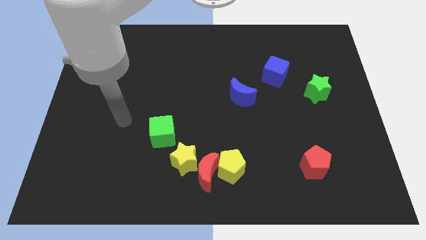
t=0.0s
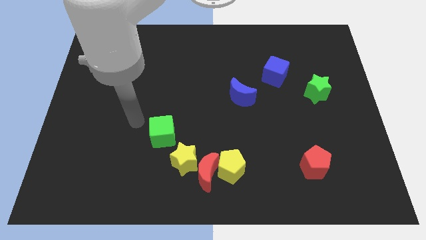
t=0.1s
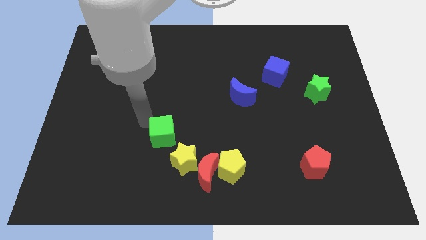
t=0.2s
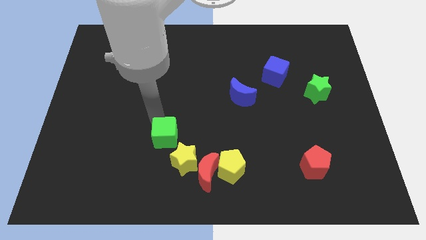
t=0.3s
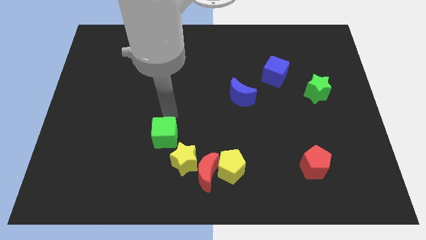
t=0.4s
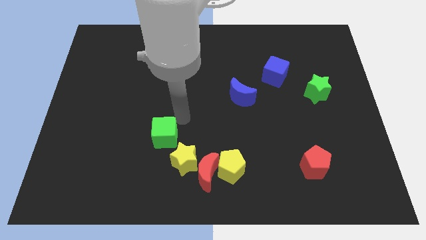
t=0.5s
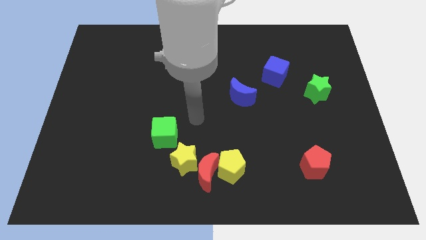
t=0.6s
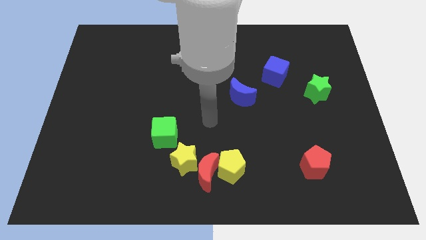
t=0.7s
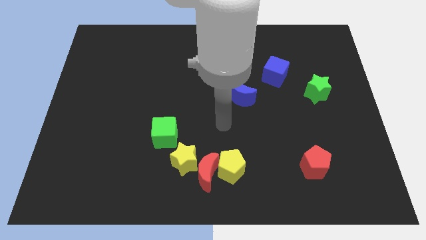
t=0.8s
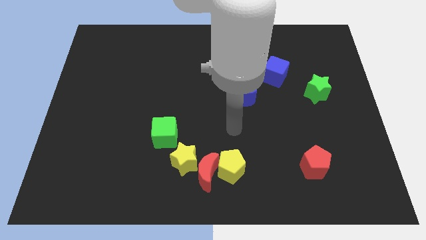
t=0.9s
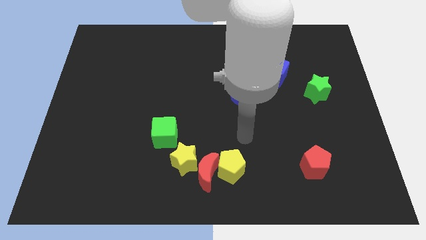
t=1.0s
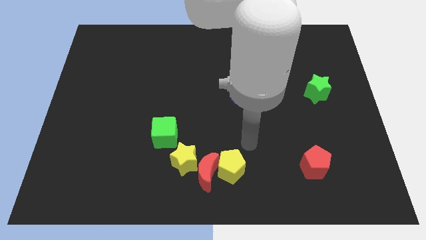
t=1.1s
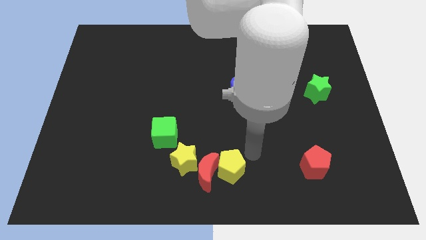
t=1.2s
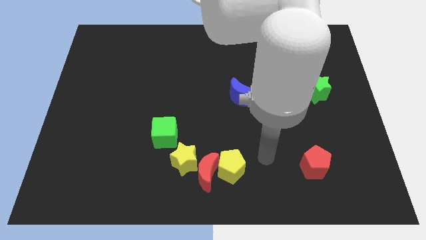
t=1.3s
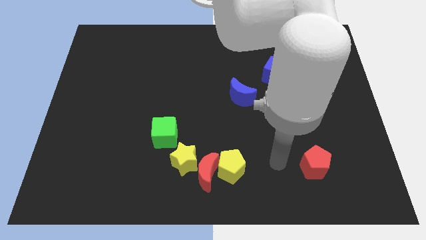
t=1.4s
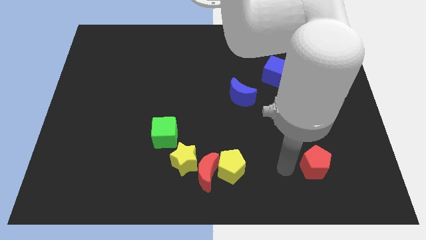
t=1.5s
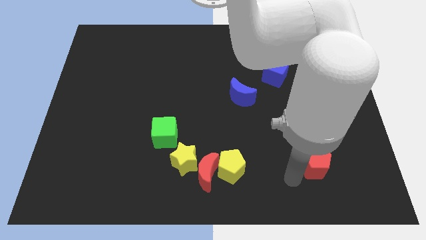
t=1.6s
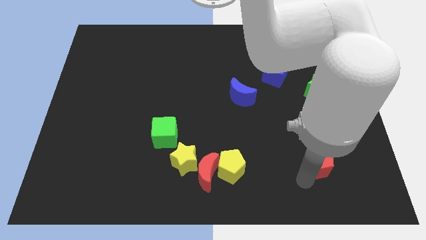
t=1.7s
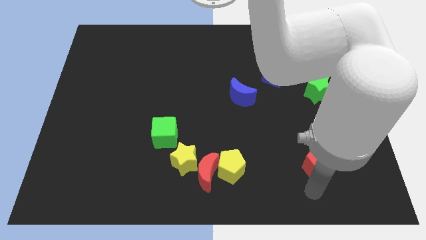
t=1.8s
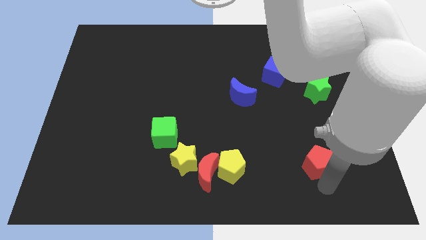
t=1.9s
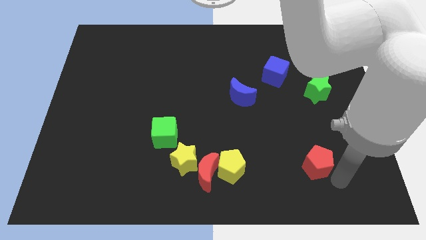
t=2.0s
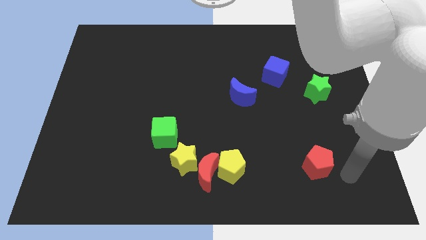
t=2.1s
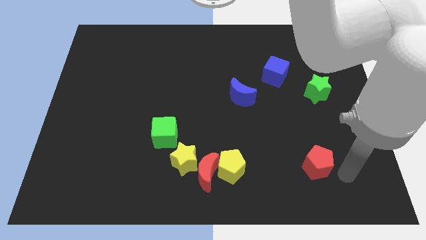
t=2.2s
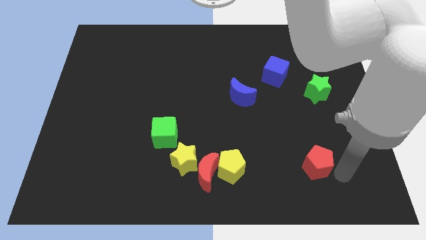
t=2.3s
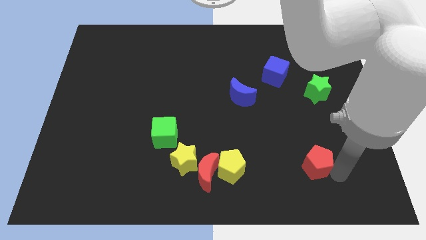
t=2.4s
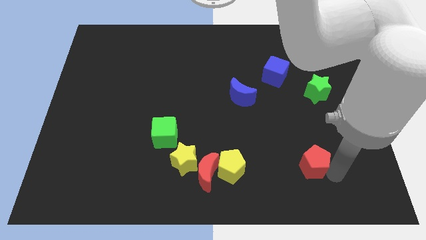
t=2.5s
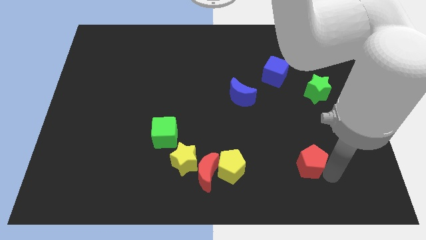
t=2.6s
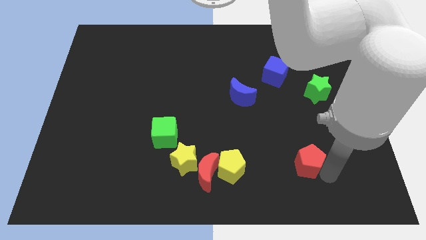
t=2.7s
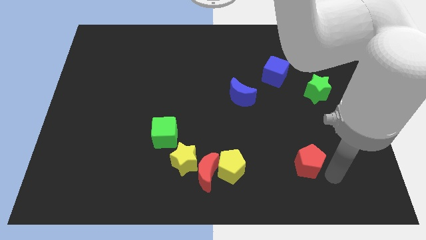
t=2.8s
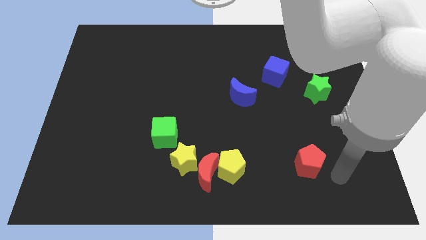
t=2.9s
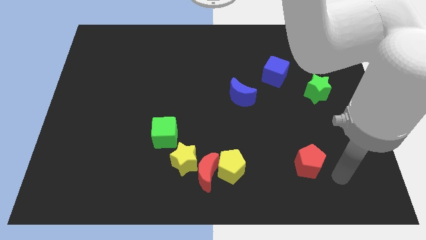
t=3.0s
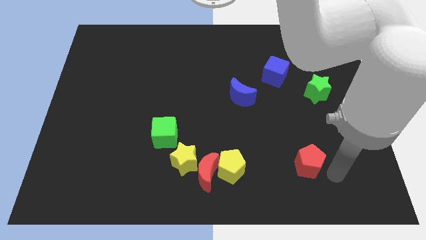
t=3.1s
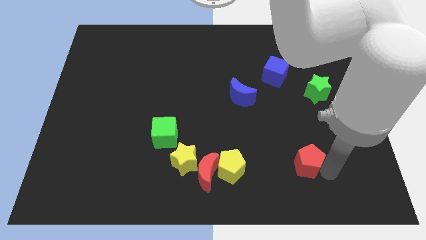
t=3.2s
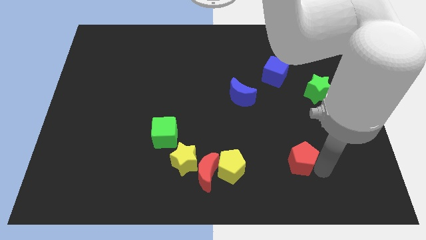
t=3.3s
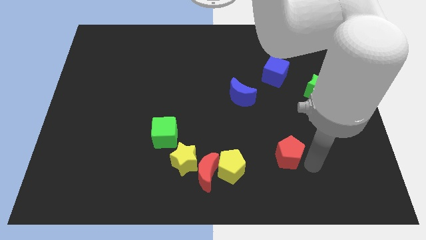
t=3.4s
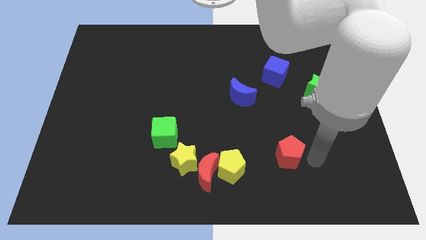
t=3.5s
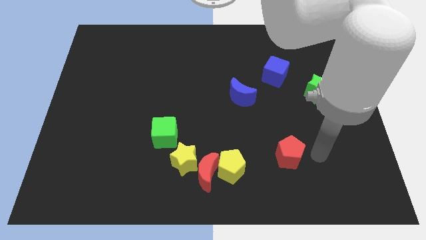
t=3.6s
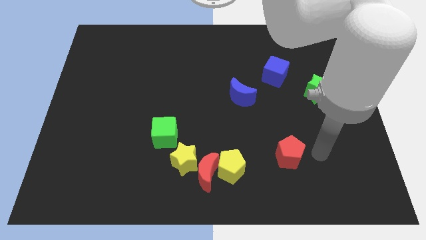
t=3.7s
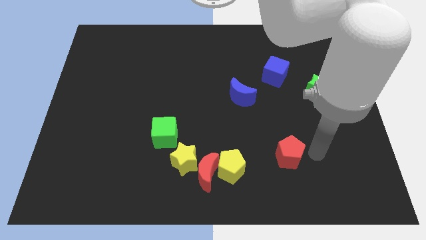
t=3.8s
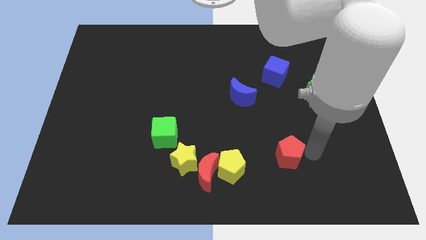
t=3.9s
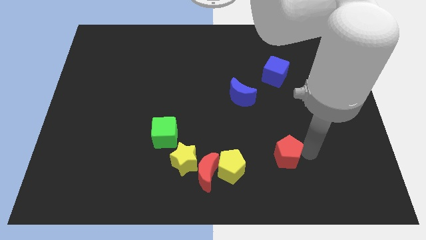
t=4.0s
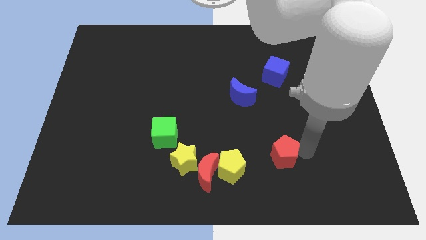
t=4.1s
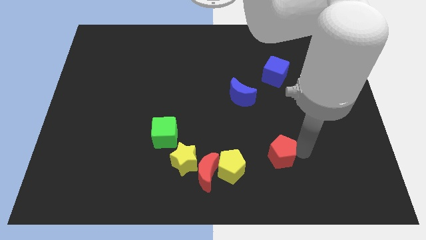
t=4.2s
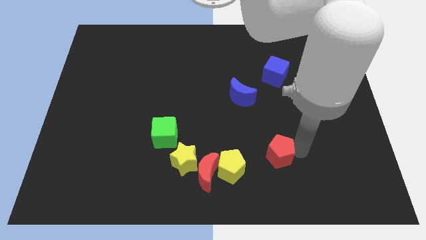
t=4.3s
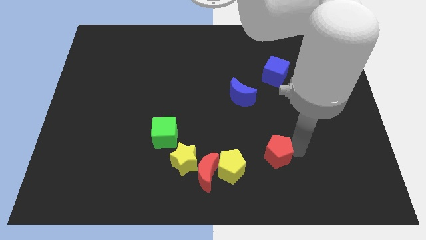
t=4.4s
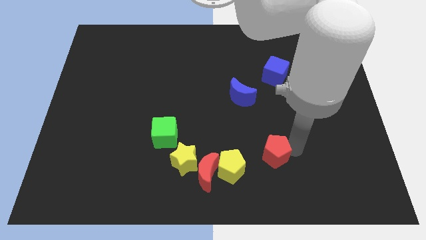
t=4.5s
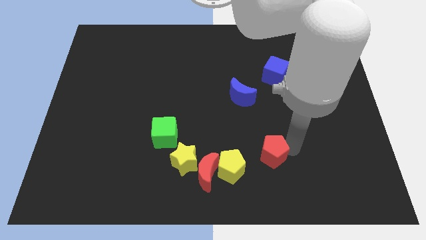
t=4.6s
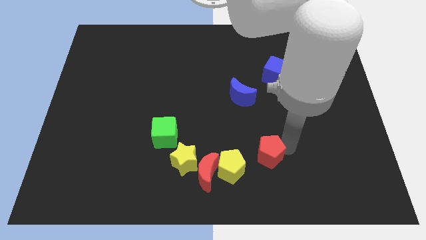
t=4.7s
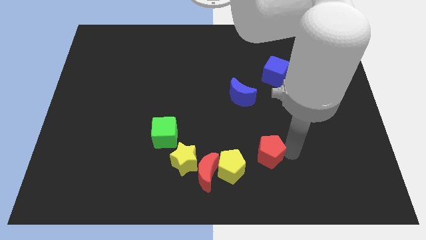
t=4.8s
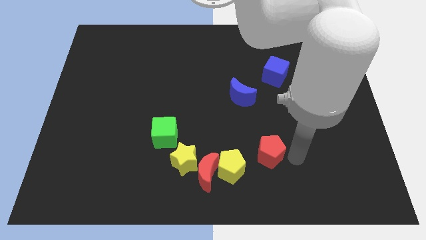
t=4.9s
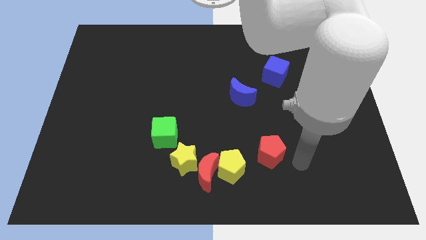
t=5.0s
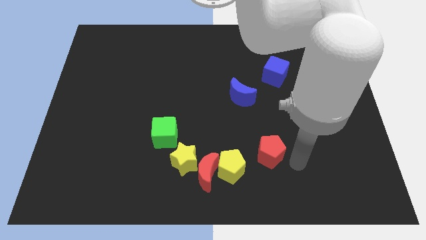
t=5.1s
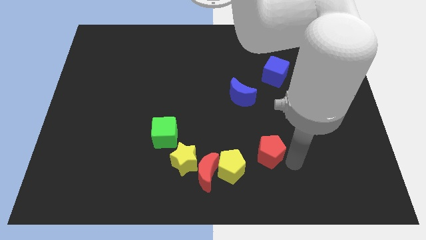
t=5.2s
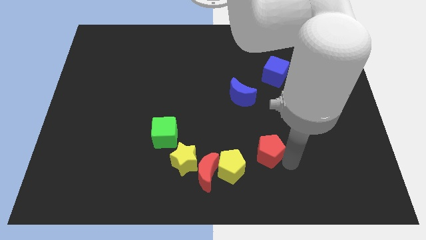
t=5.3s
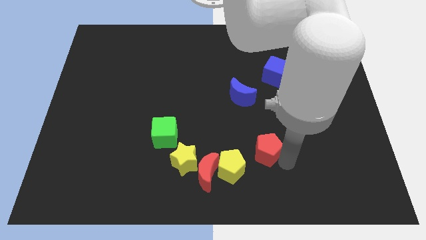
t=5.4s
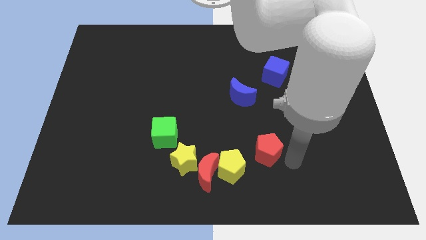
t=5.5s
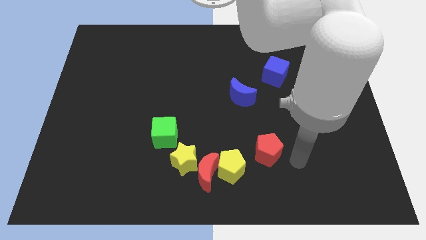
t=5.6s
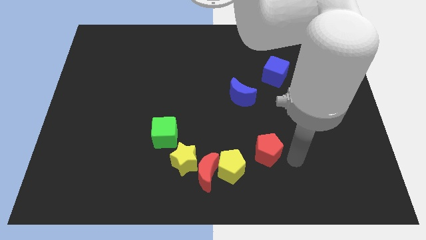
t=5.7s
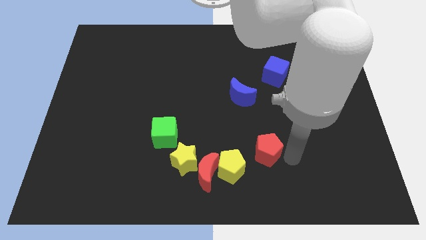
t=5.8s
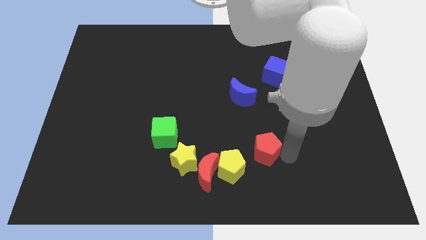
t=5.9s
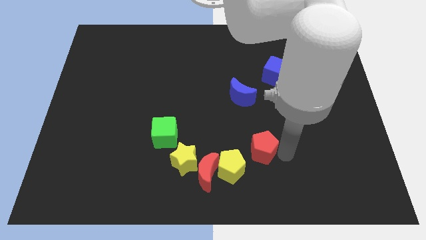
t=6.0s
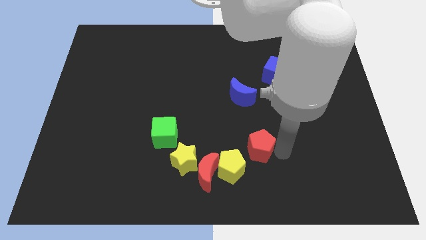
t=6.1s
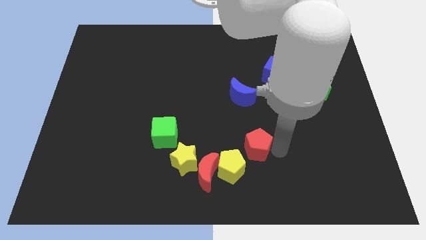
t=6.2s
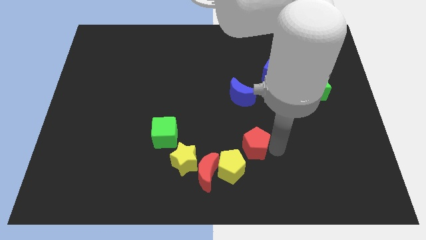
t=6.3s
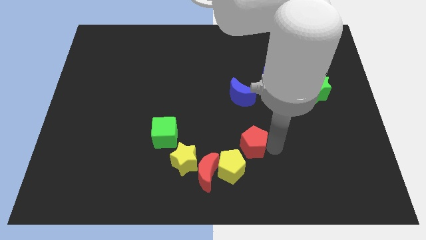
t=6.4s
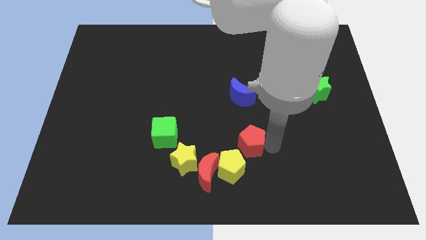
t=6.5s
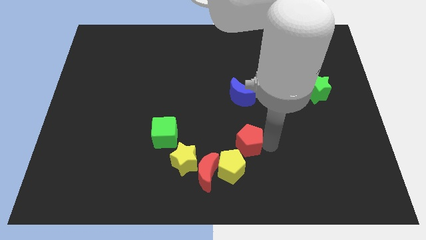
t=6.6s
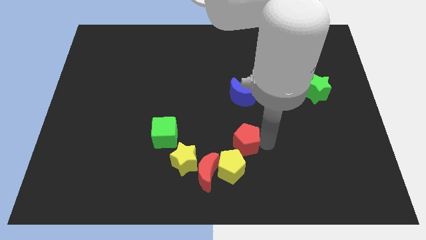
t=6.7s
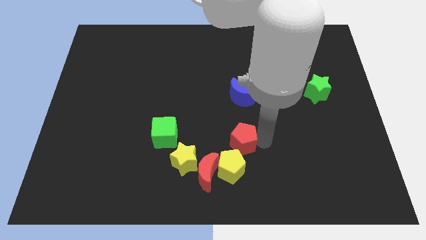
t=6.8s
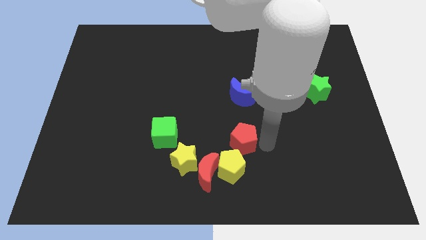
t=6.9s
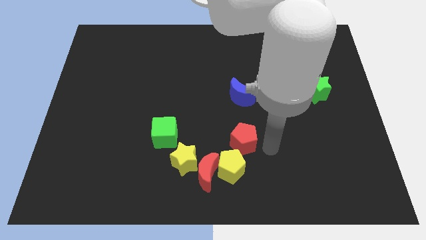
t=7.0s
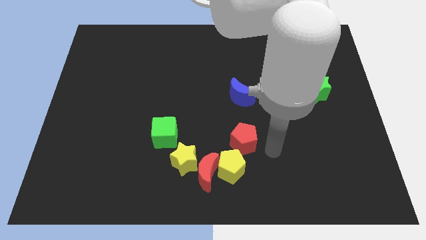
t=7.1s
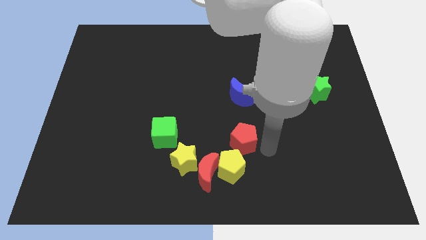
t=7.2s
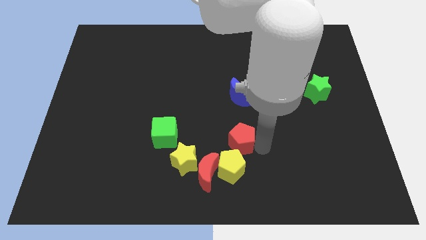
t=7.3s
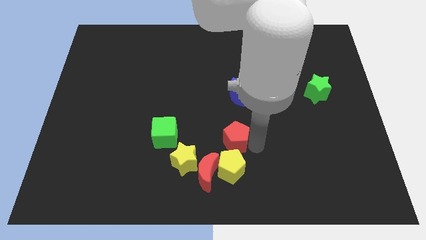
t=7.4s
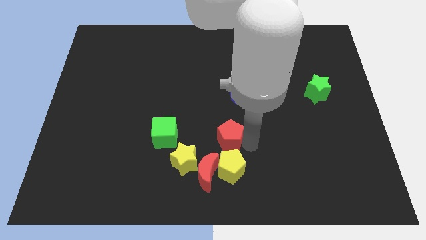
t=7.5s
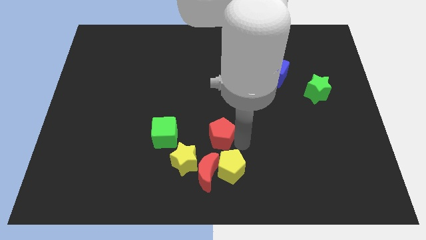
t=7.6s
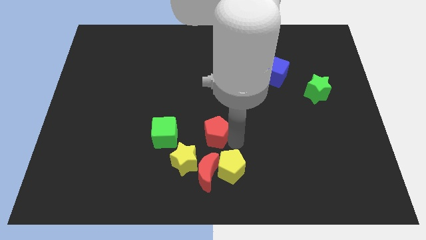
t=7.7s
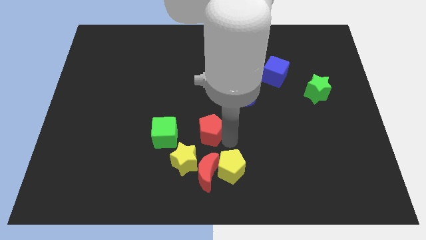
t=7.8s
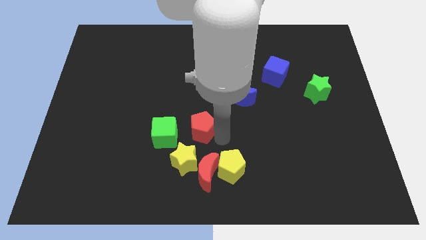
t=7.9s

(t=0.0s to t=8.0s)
put the red pentagon to the top right side of the green cube
